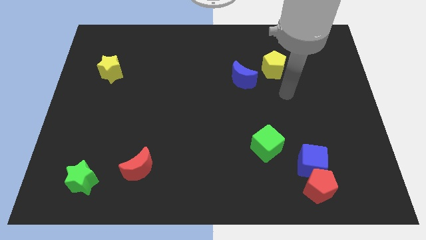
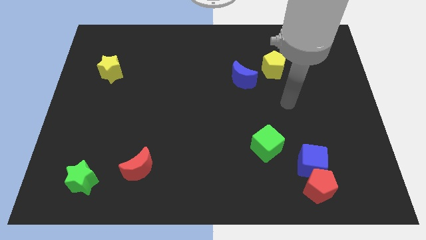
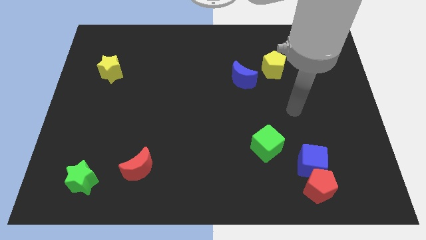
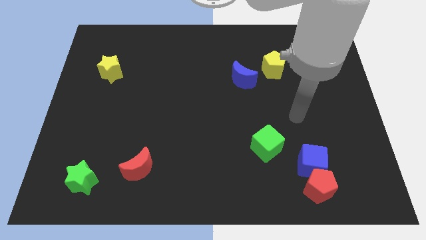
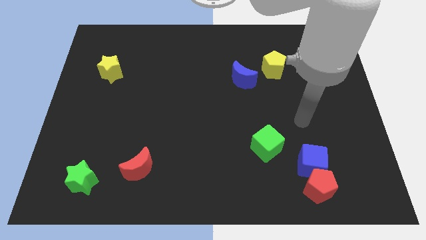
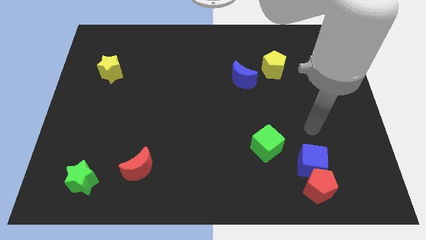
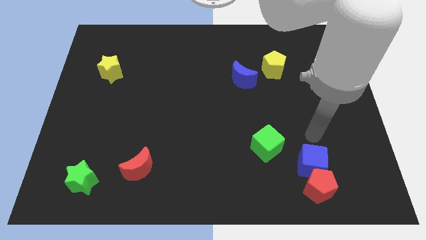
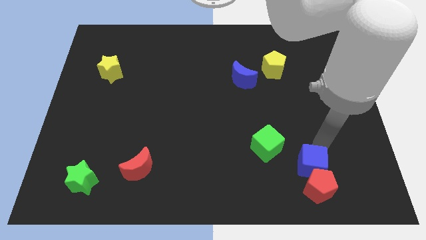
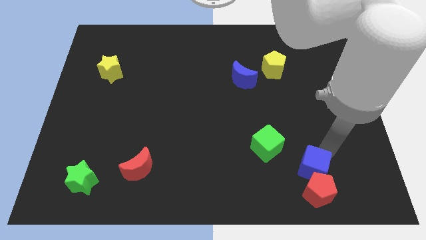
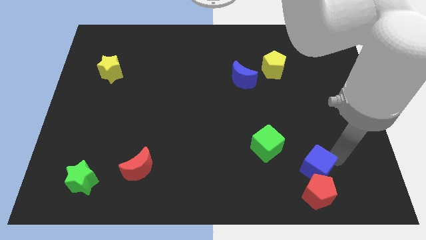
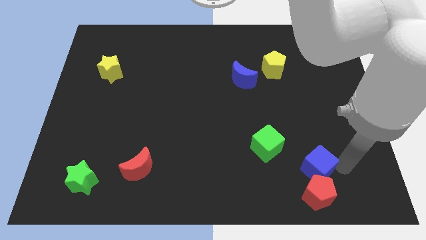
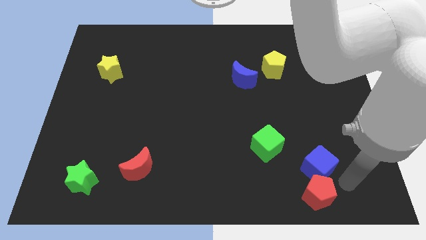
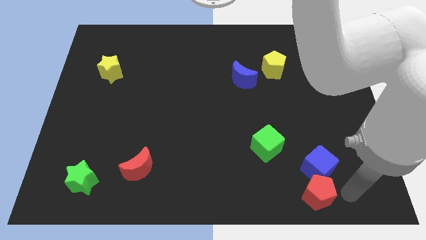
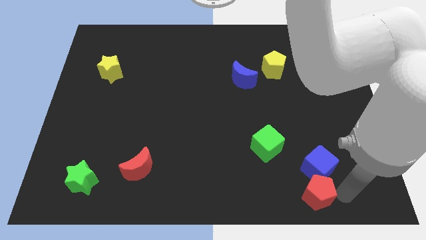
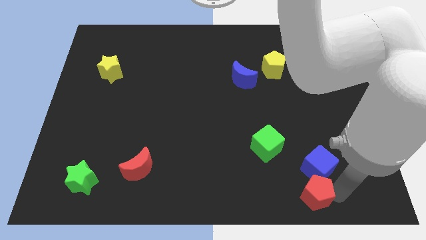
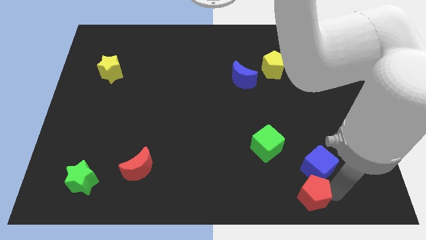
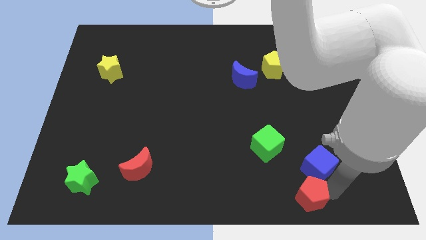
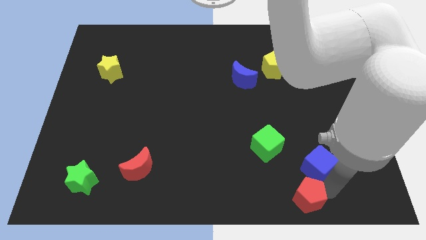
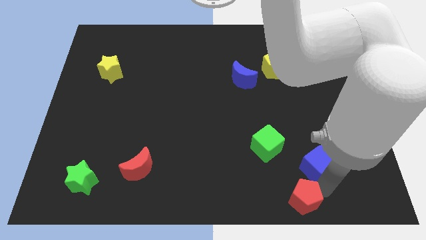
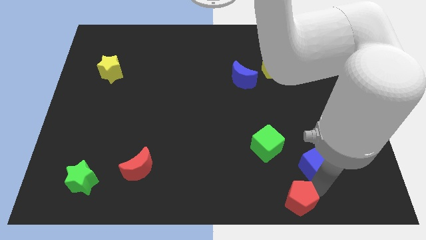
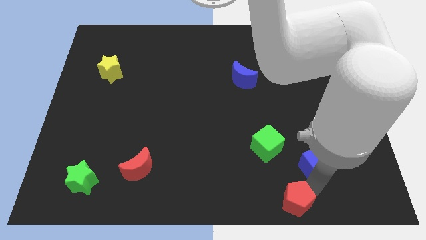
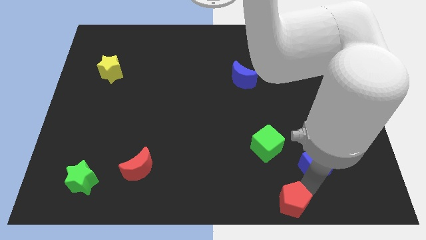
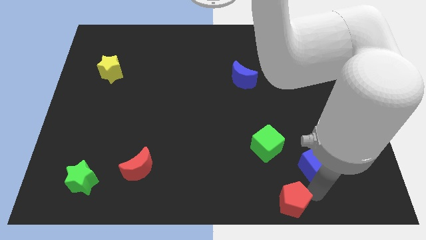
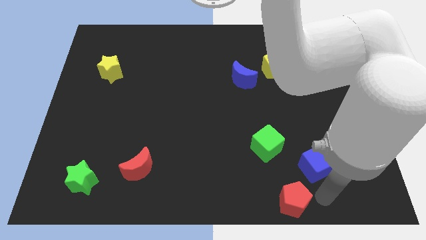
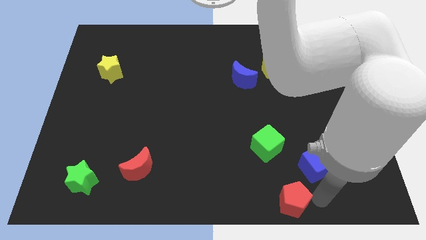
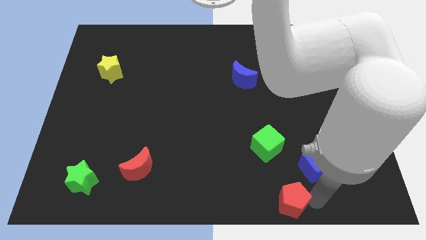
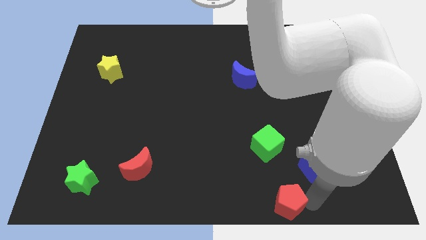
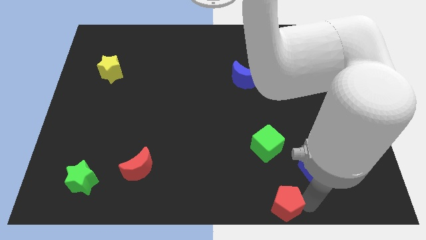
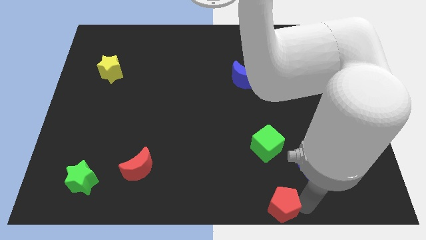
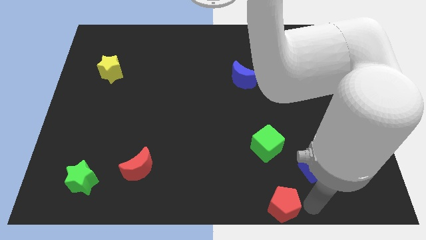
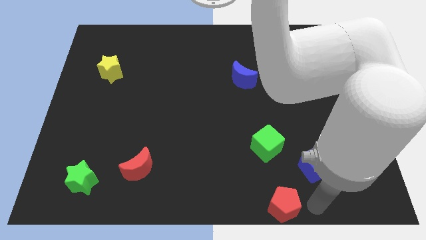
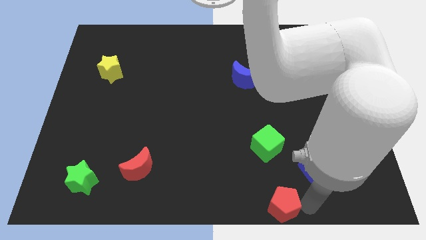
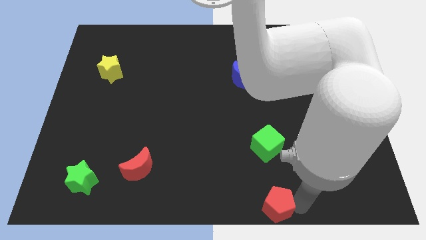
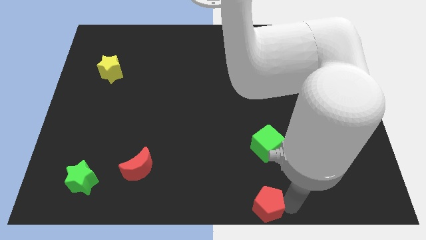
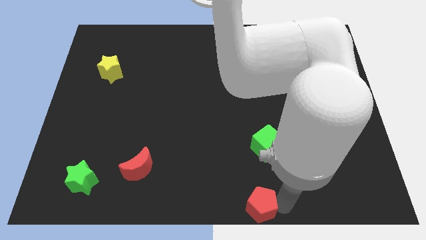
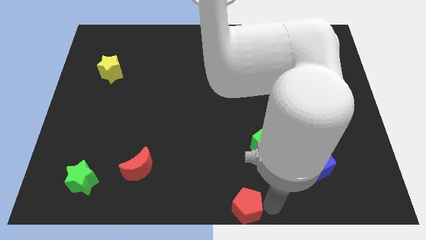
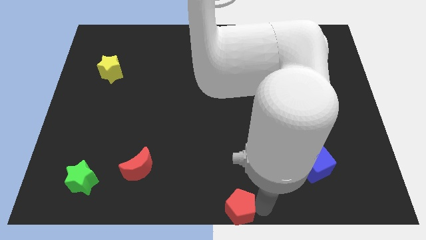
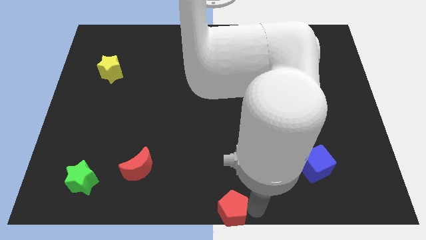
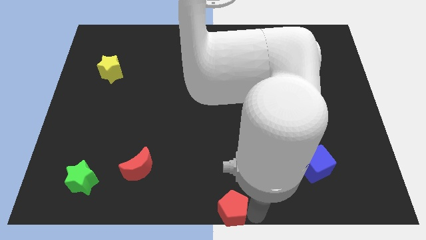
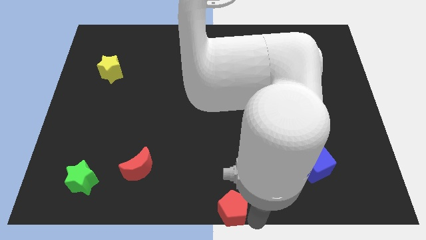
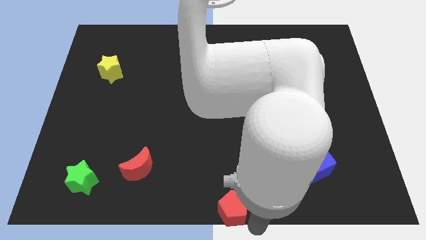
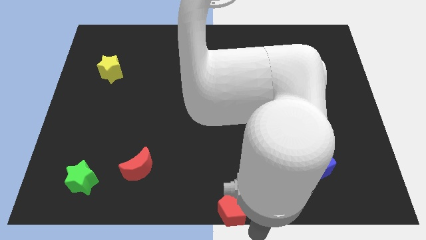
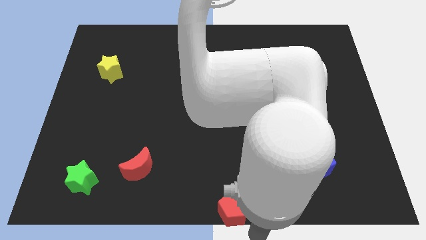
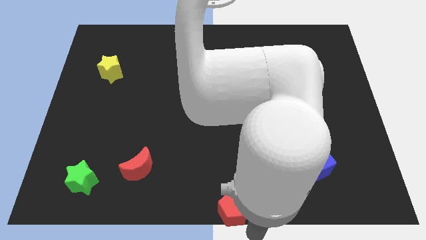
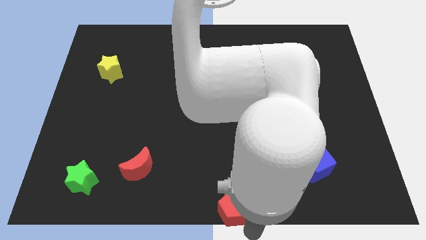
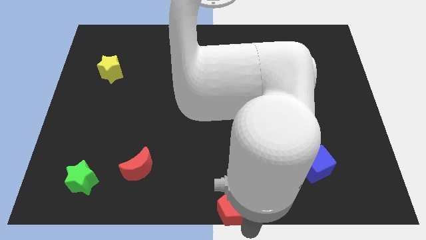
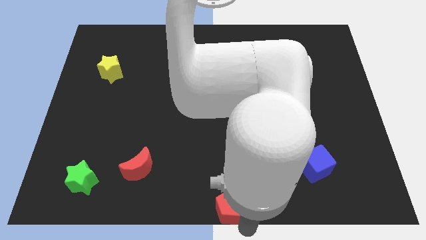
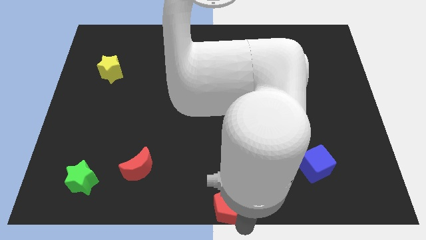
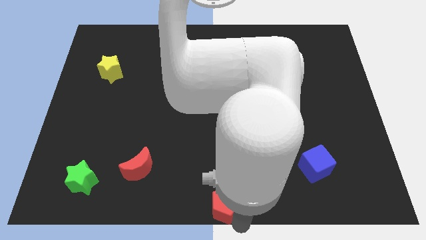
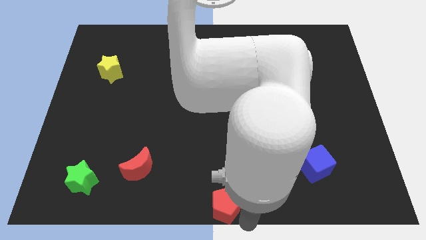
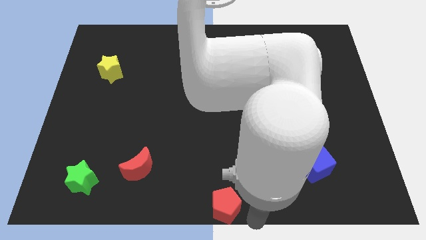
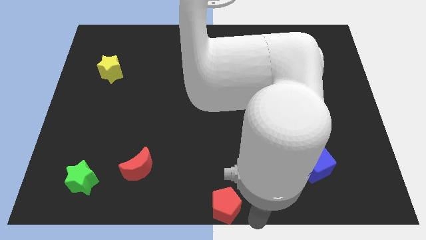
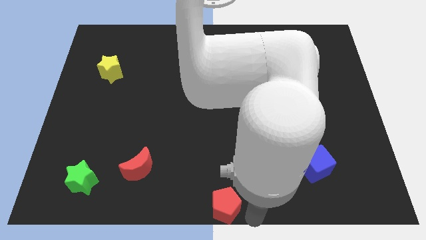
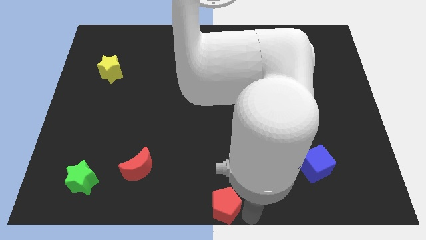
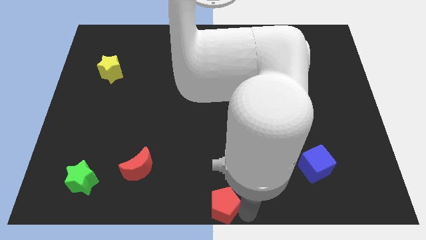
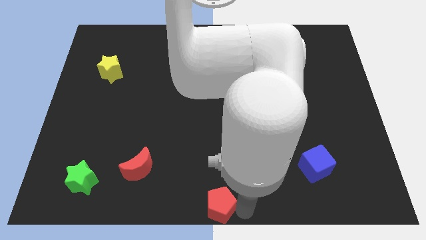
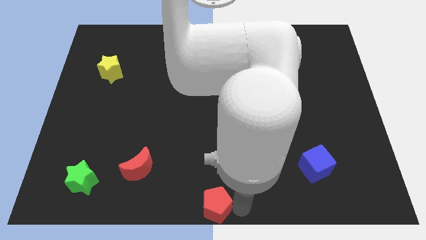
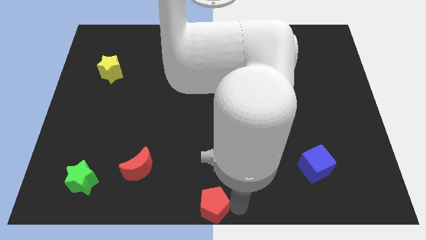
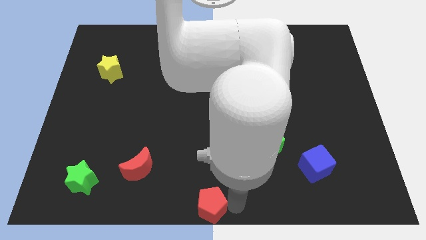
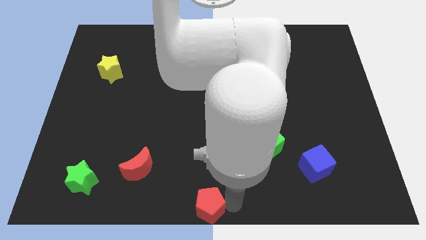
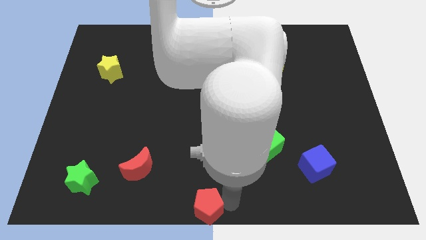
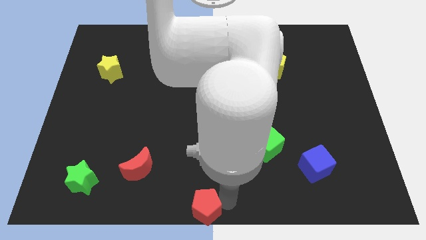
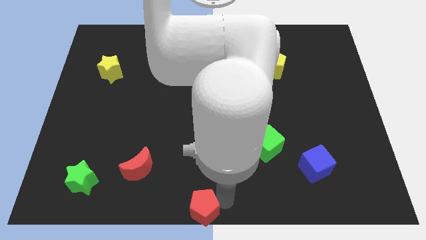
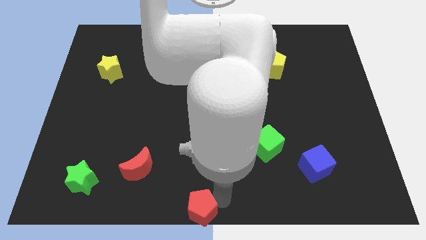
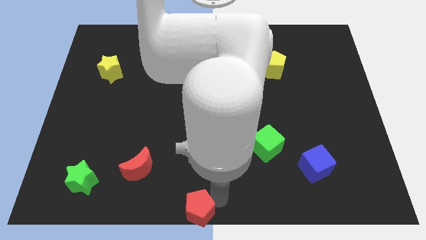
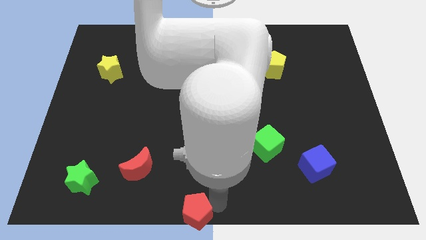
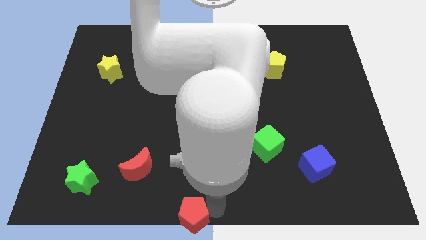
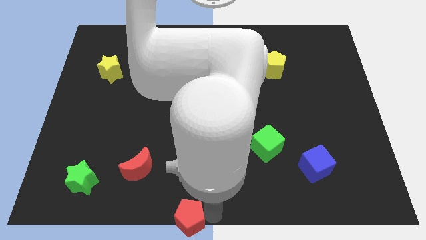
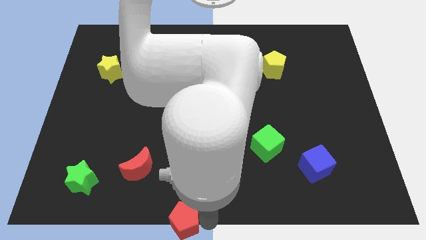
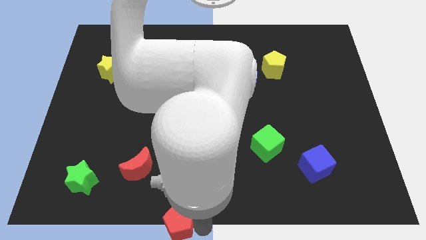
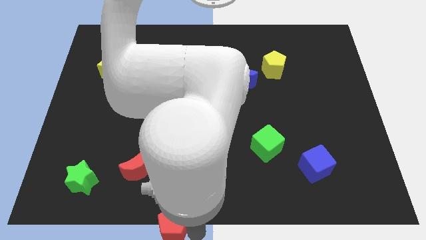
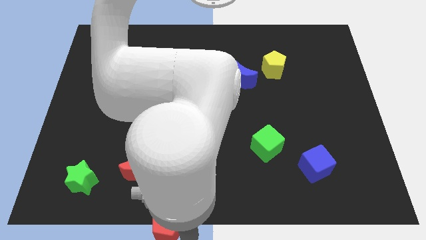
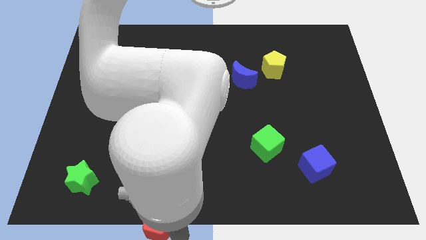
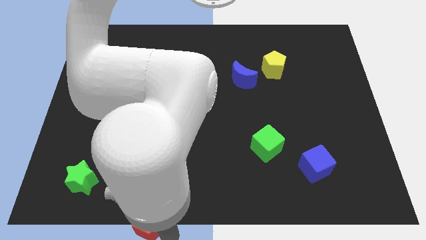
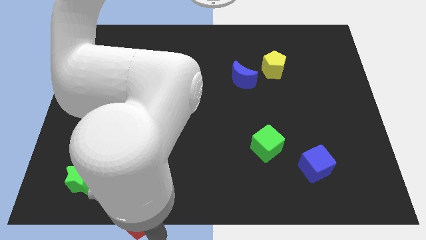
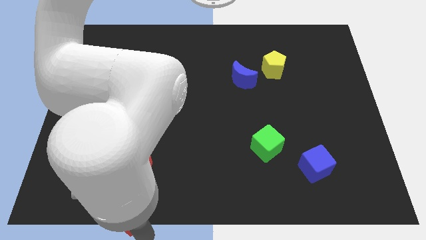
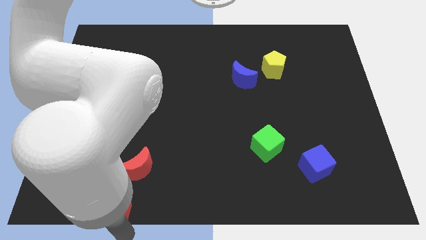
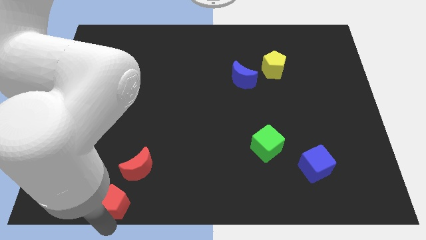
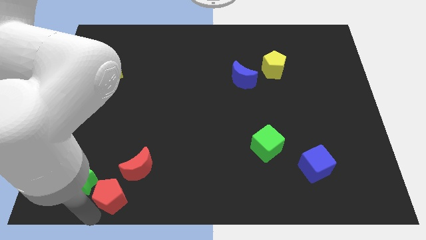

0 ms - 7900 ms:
move the red pentagon to the right of the green star
